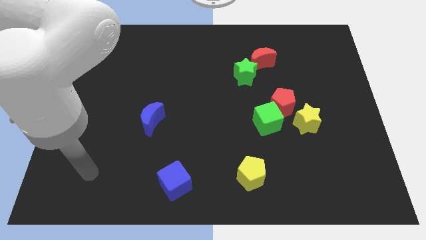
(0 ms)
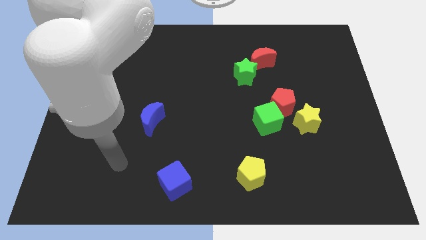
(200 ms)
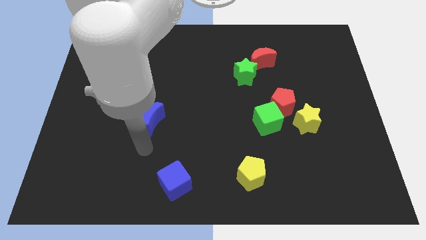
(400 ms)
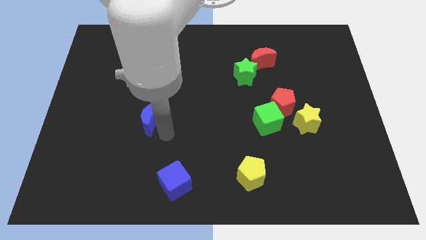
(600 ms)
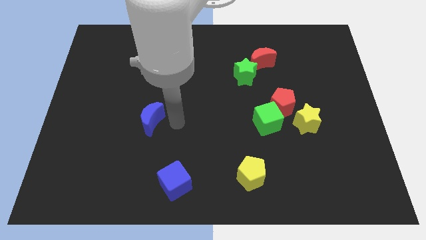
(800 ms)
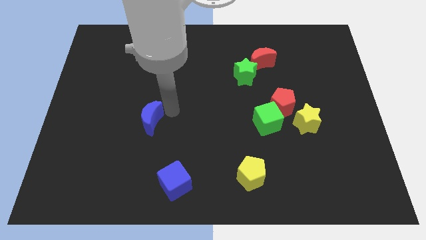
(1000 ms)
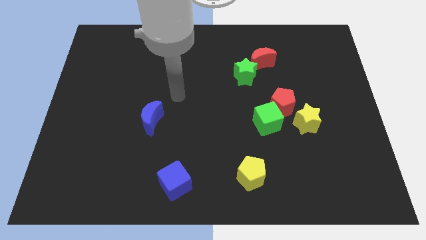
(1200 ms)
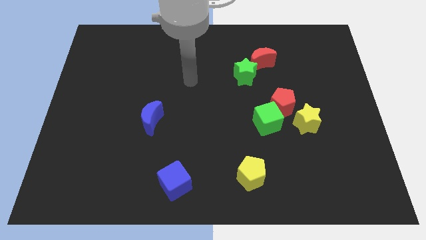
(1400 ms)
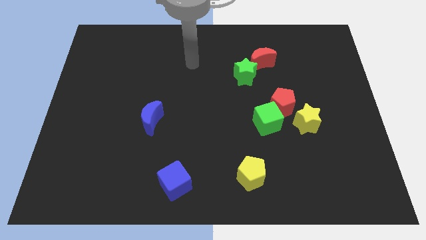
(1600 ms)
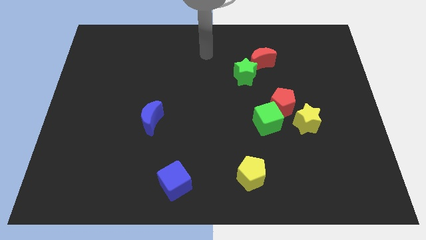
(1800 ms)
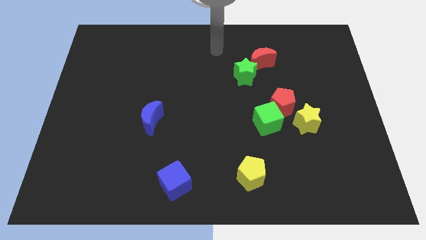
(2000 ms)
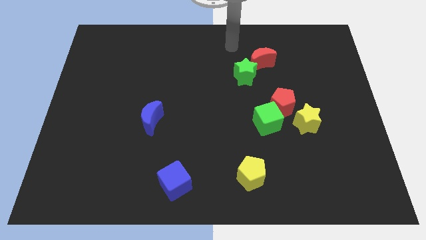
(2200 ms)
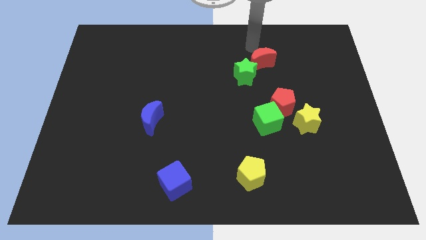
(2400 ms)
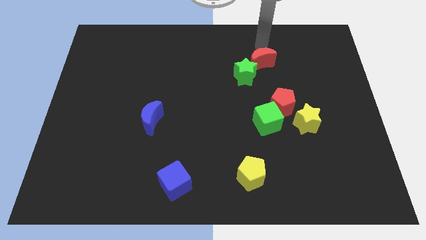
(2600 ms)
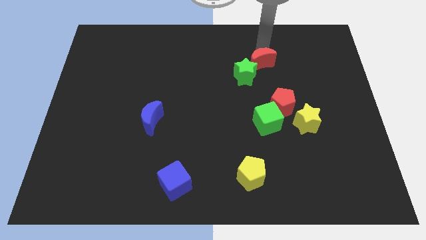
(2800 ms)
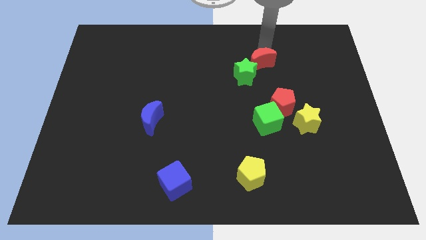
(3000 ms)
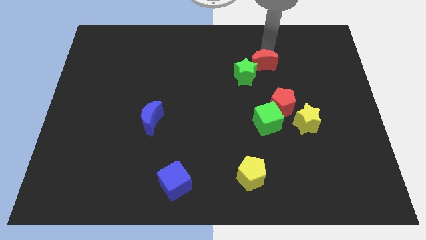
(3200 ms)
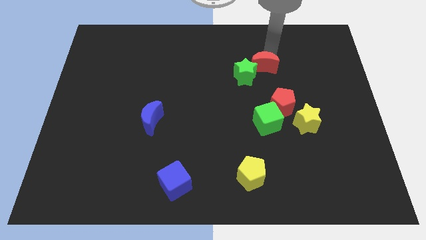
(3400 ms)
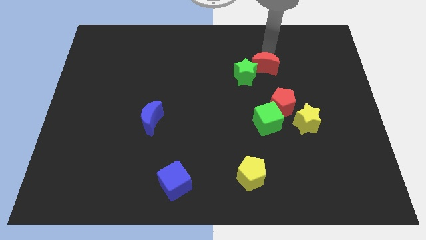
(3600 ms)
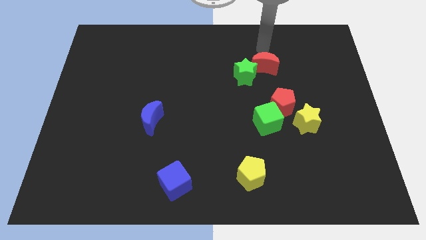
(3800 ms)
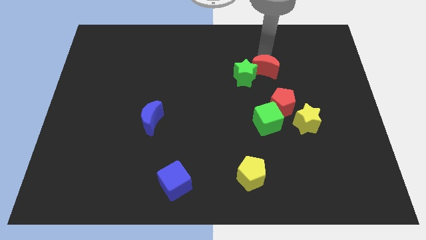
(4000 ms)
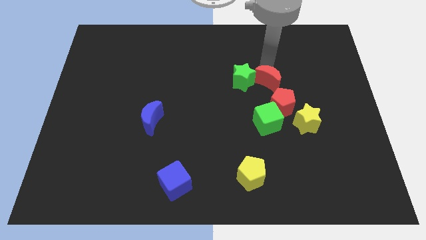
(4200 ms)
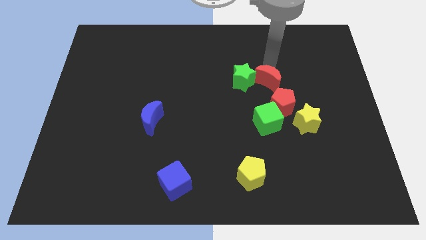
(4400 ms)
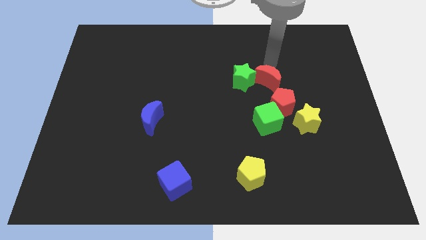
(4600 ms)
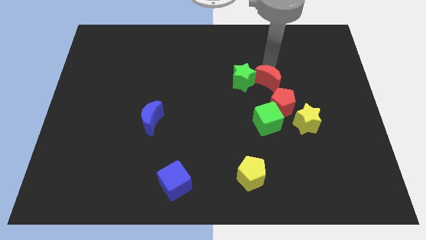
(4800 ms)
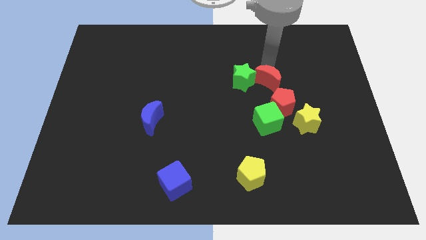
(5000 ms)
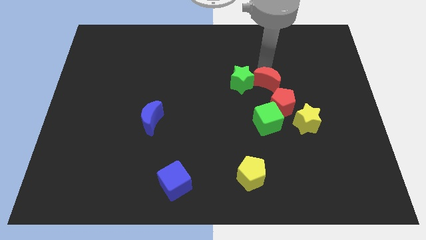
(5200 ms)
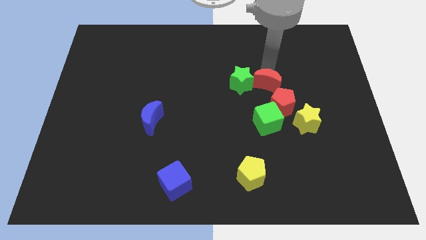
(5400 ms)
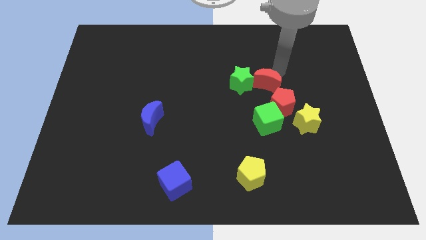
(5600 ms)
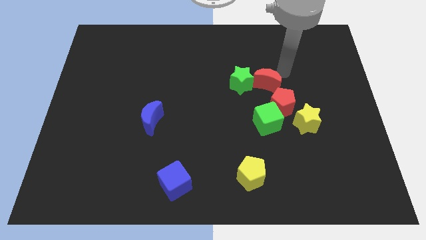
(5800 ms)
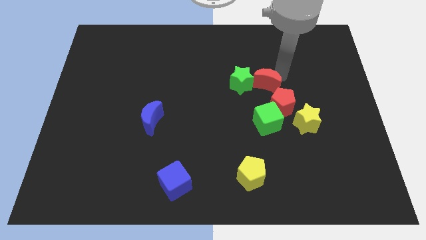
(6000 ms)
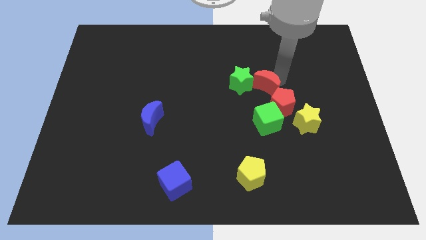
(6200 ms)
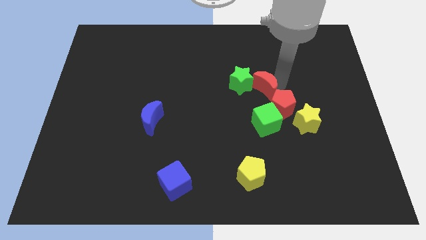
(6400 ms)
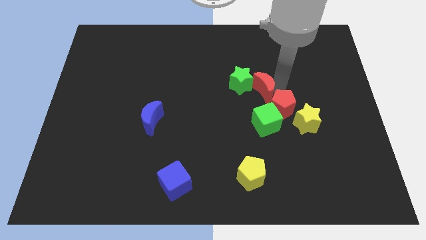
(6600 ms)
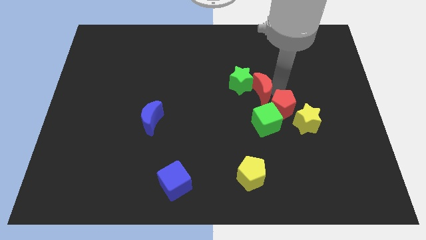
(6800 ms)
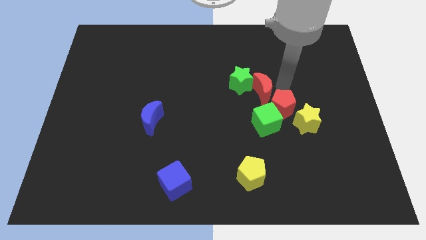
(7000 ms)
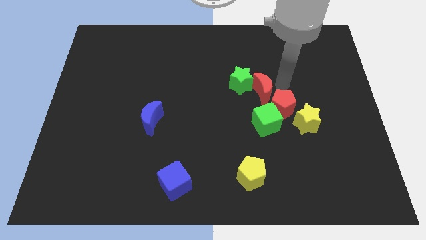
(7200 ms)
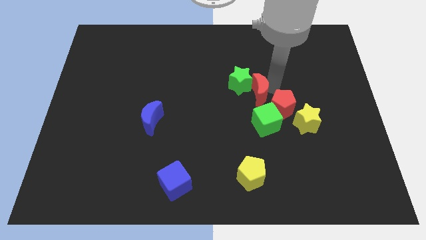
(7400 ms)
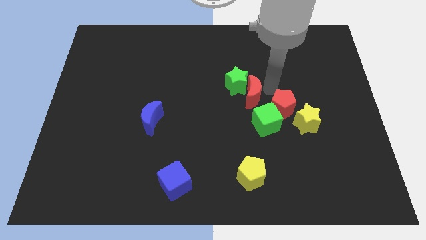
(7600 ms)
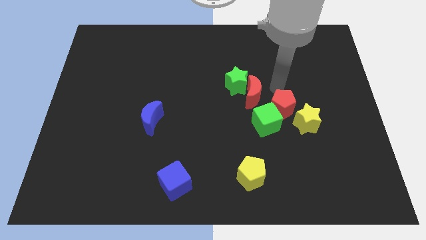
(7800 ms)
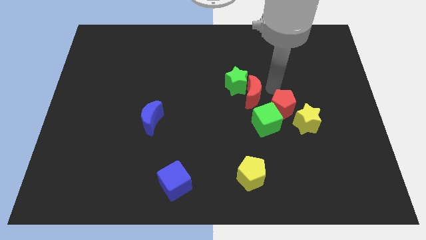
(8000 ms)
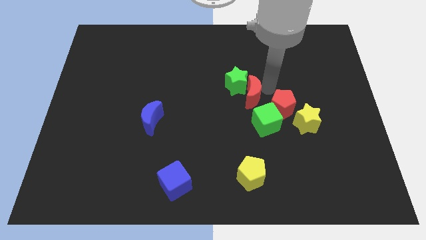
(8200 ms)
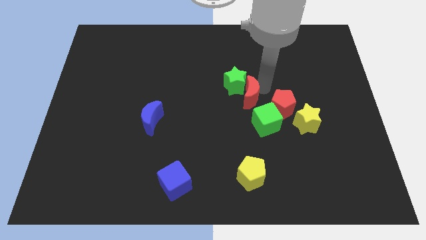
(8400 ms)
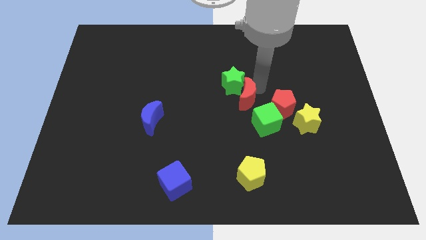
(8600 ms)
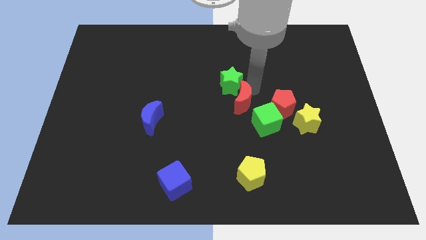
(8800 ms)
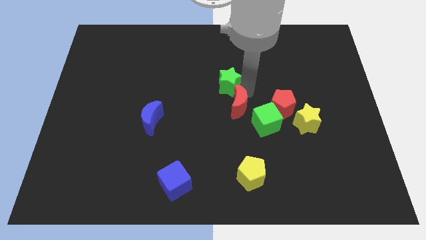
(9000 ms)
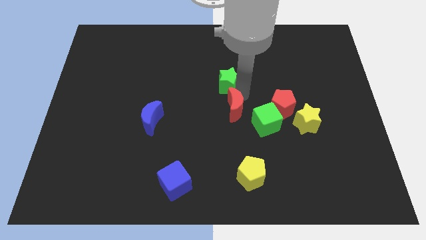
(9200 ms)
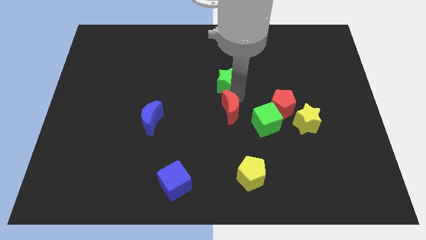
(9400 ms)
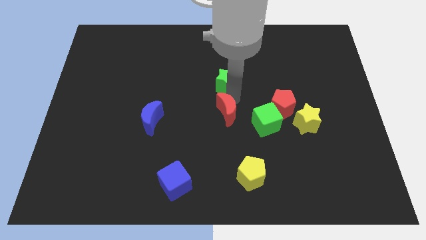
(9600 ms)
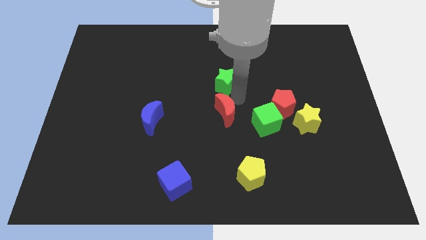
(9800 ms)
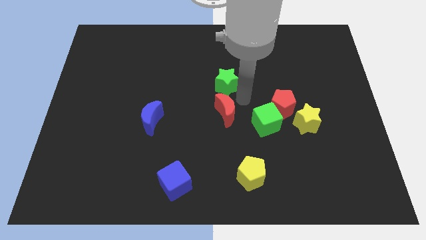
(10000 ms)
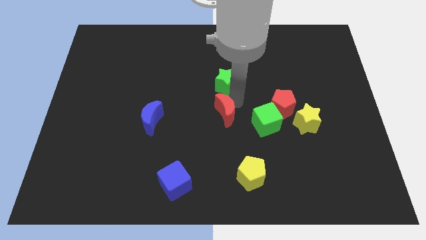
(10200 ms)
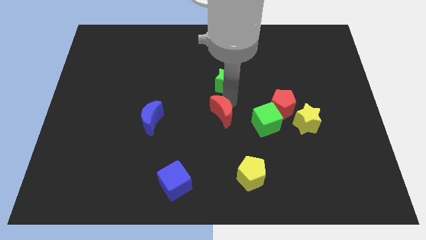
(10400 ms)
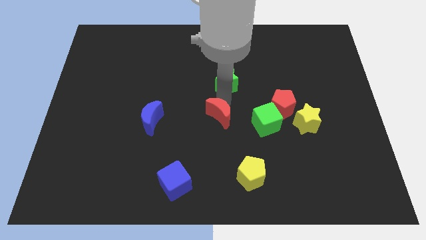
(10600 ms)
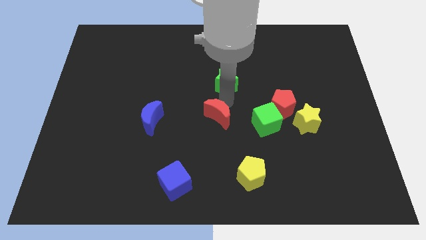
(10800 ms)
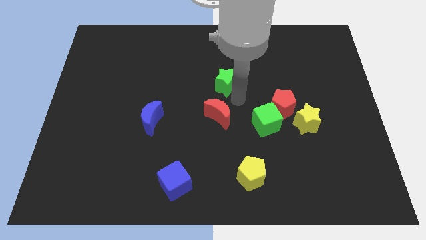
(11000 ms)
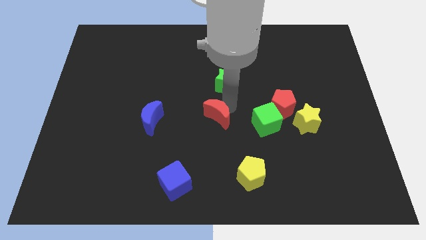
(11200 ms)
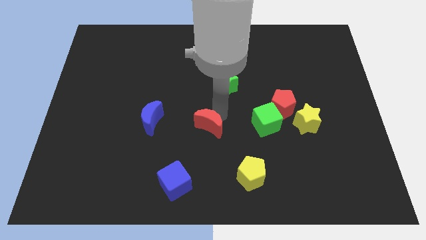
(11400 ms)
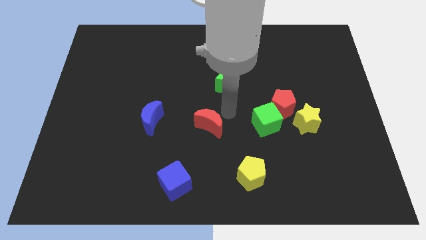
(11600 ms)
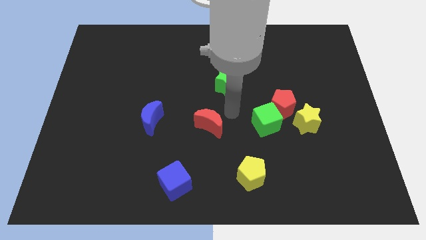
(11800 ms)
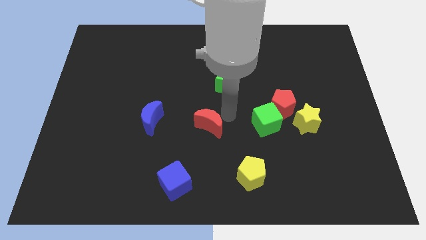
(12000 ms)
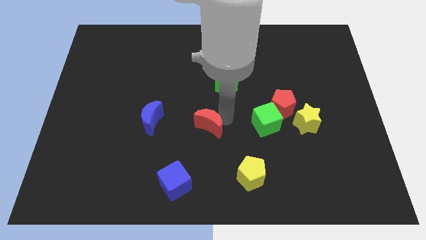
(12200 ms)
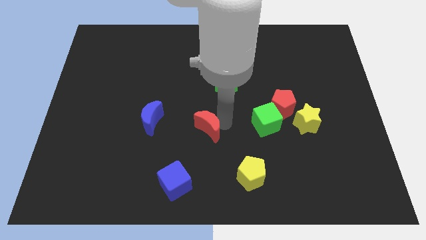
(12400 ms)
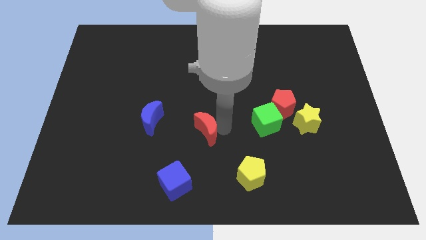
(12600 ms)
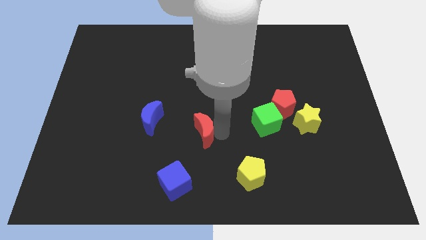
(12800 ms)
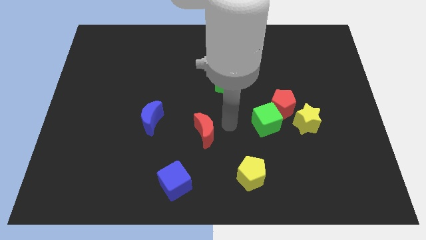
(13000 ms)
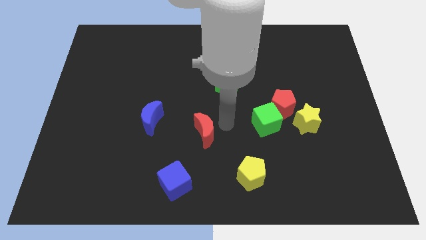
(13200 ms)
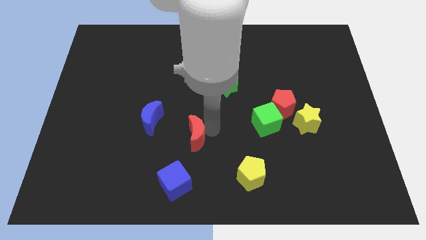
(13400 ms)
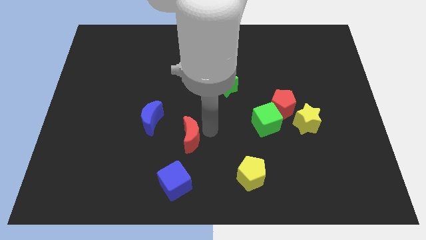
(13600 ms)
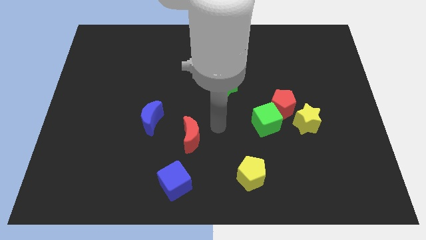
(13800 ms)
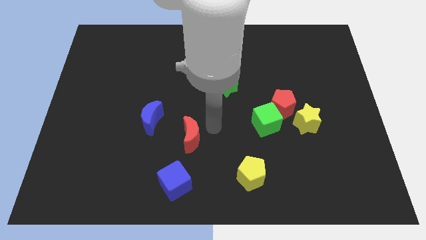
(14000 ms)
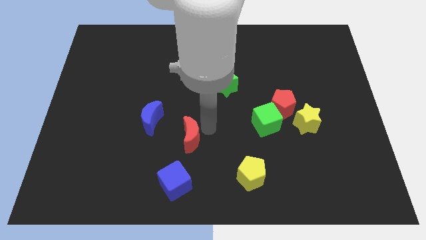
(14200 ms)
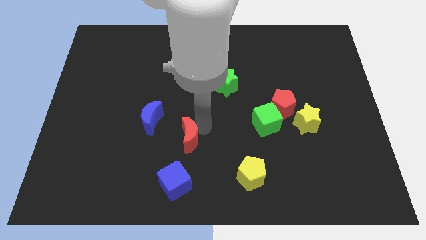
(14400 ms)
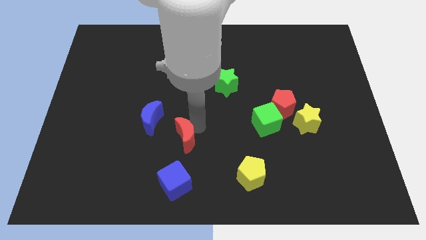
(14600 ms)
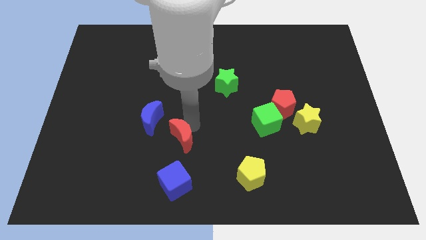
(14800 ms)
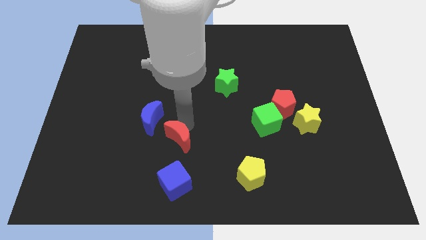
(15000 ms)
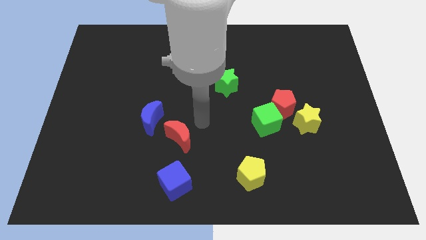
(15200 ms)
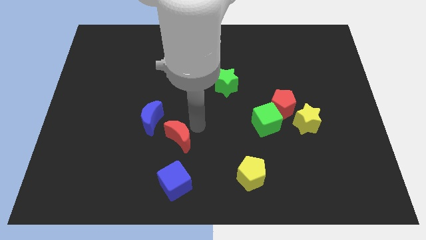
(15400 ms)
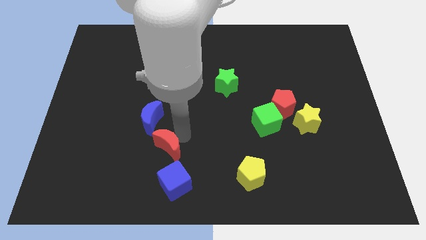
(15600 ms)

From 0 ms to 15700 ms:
push the red moon below the blue moon
